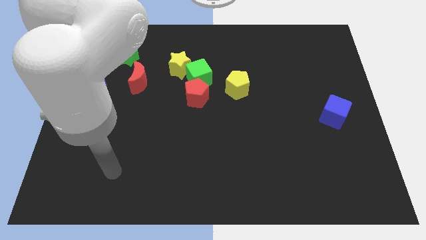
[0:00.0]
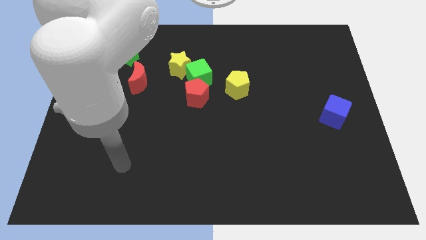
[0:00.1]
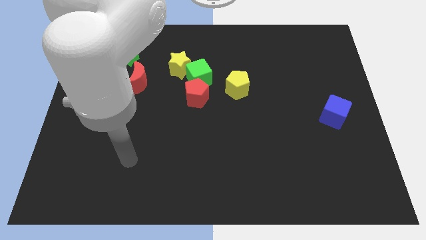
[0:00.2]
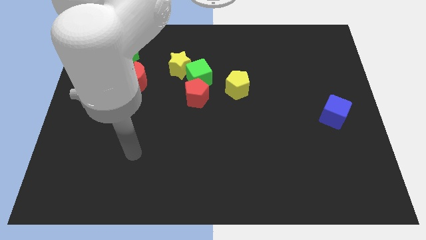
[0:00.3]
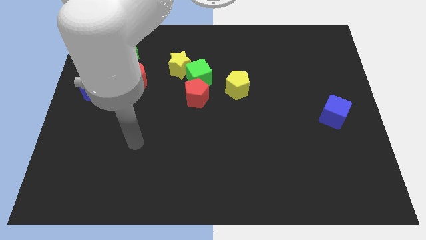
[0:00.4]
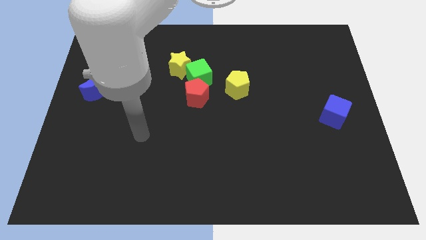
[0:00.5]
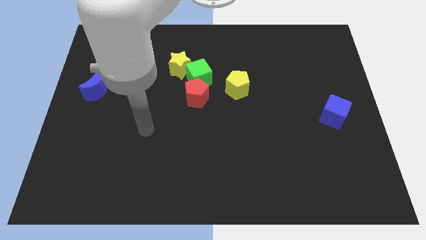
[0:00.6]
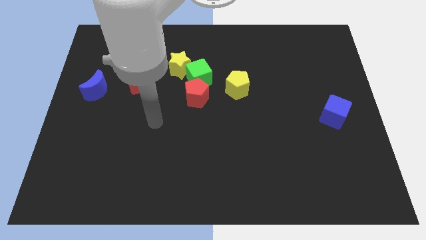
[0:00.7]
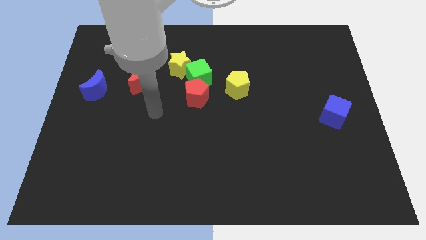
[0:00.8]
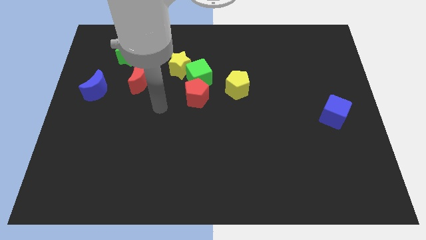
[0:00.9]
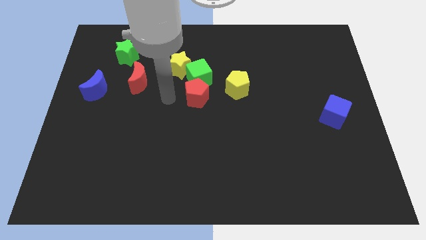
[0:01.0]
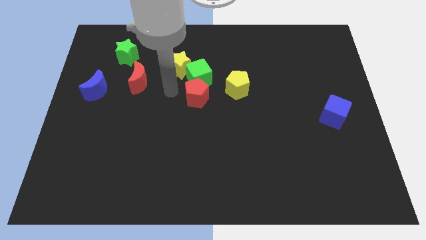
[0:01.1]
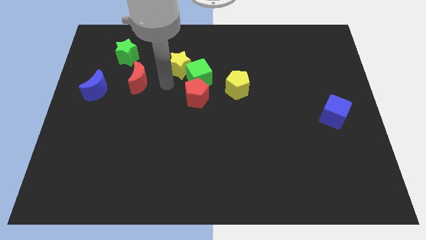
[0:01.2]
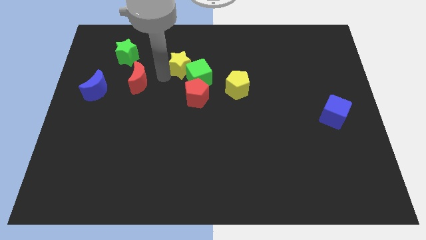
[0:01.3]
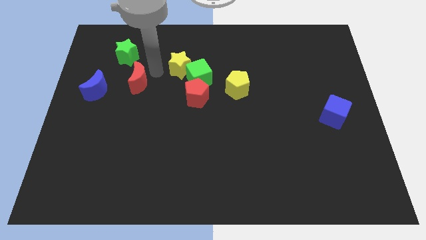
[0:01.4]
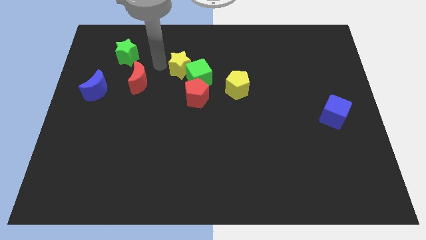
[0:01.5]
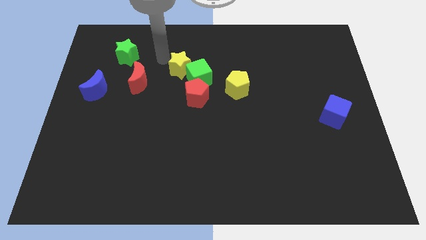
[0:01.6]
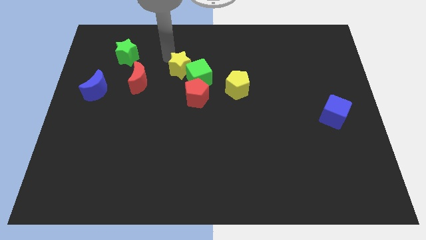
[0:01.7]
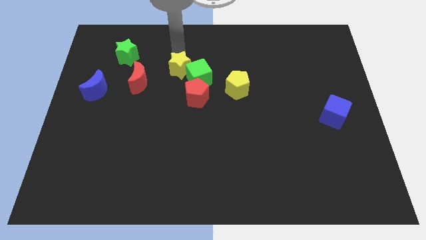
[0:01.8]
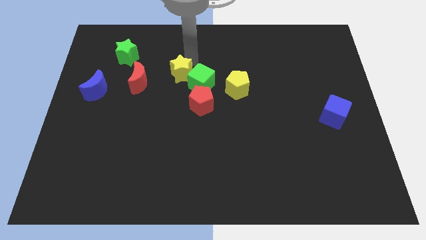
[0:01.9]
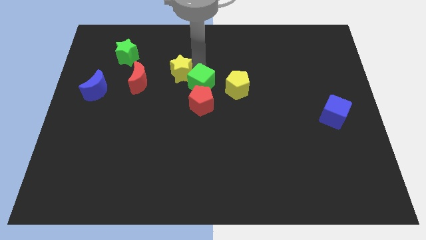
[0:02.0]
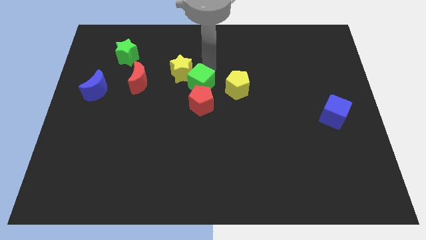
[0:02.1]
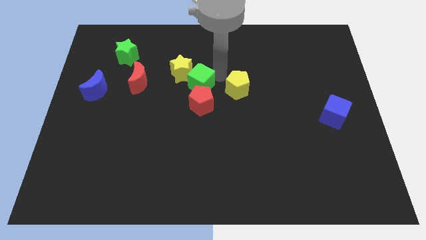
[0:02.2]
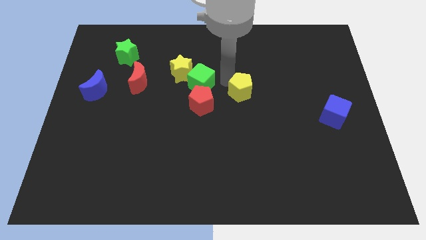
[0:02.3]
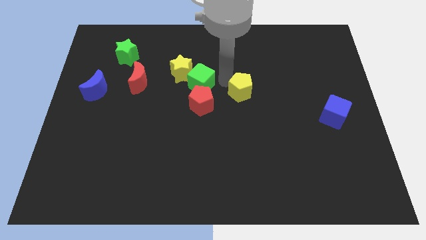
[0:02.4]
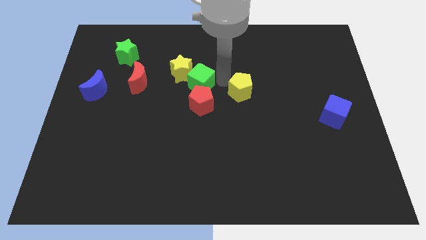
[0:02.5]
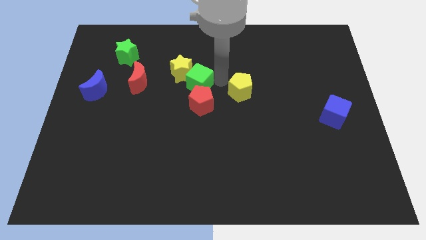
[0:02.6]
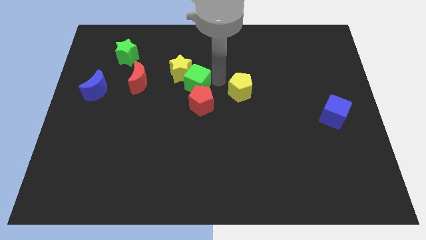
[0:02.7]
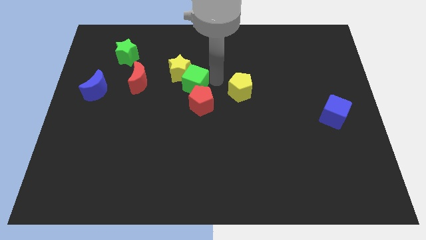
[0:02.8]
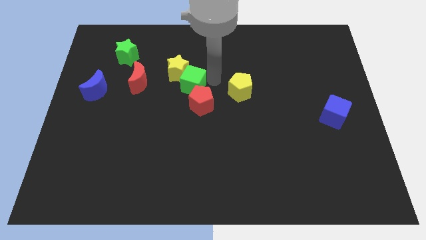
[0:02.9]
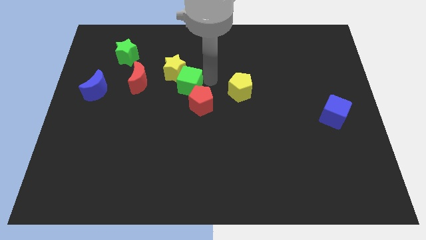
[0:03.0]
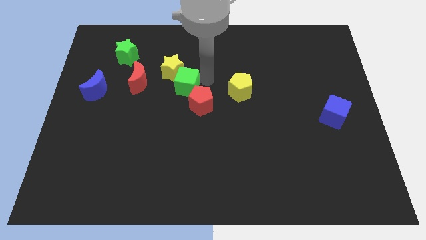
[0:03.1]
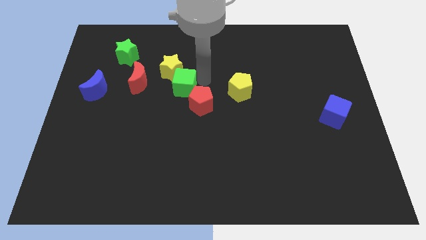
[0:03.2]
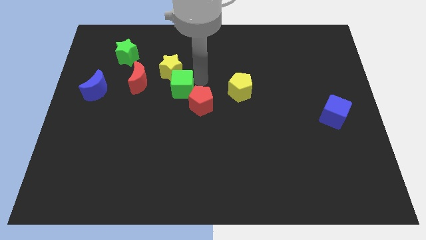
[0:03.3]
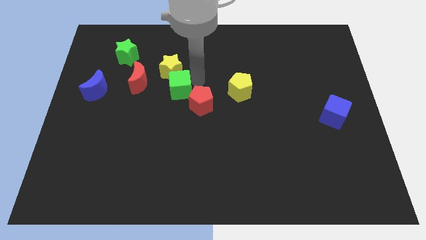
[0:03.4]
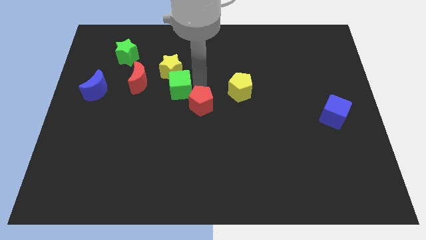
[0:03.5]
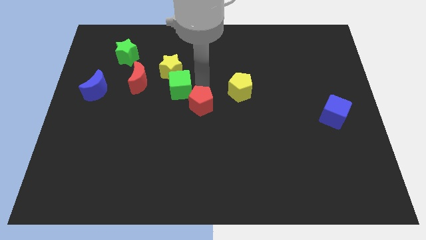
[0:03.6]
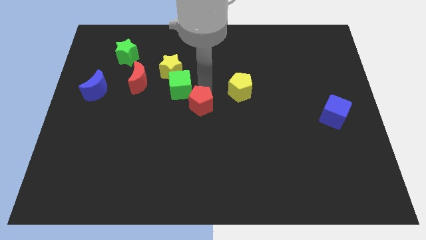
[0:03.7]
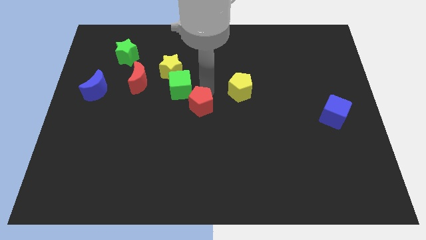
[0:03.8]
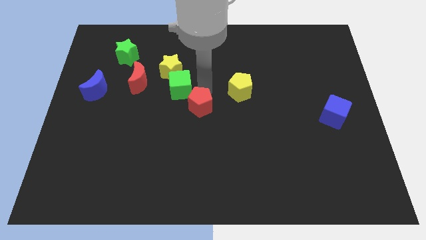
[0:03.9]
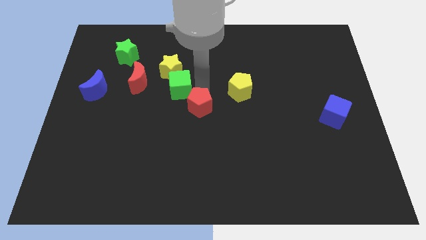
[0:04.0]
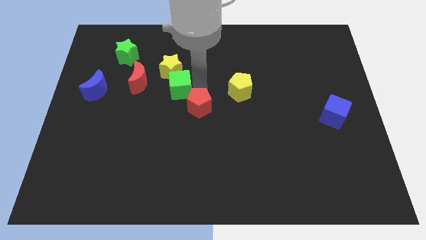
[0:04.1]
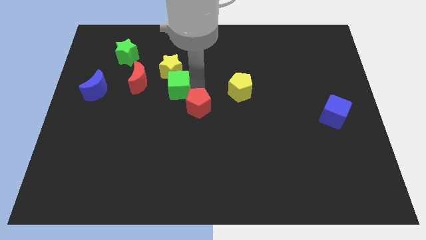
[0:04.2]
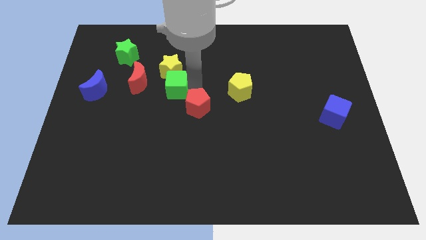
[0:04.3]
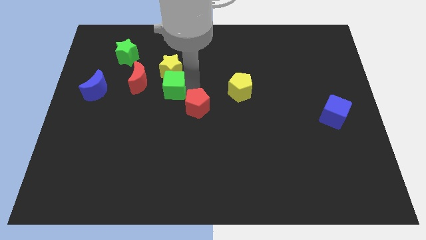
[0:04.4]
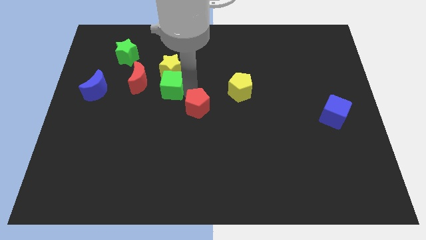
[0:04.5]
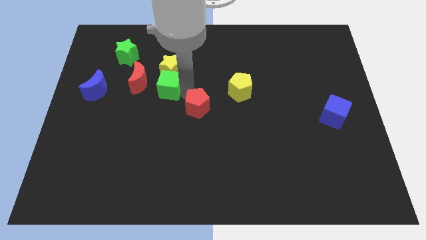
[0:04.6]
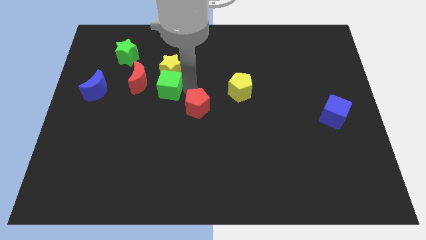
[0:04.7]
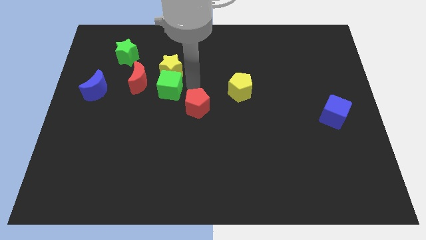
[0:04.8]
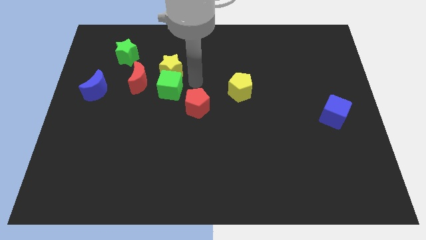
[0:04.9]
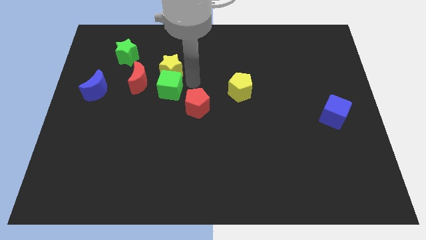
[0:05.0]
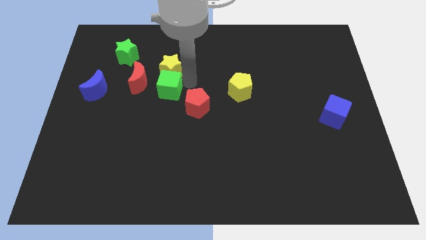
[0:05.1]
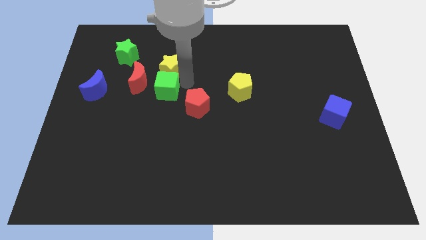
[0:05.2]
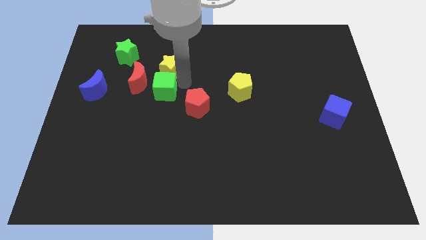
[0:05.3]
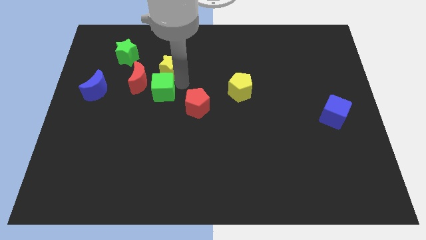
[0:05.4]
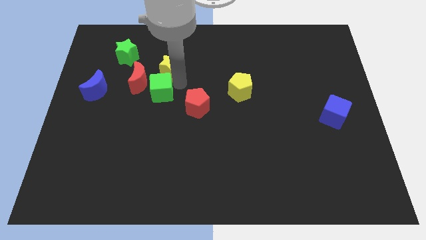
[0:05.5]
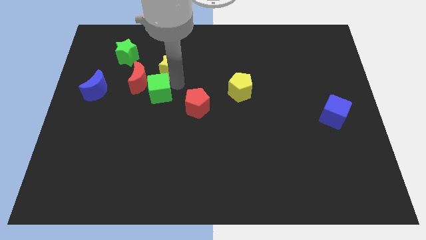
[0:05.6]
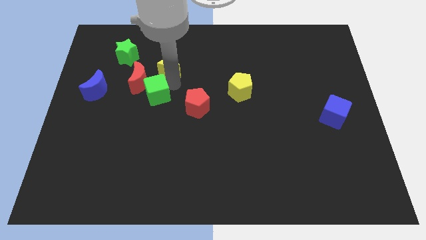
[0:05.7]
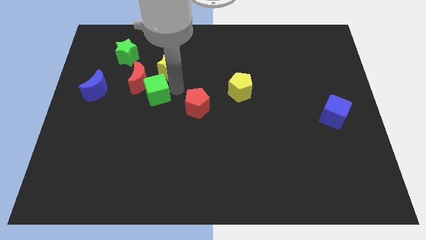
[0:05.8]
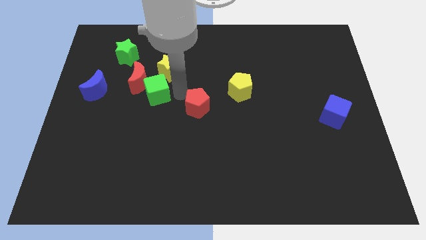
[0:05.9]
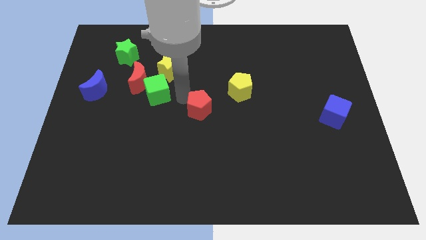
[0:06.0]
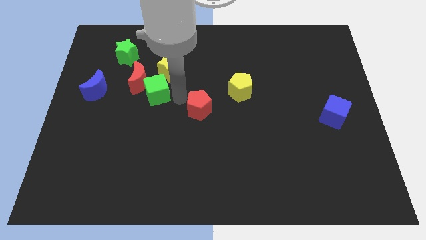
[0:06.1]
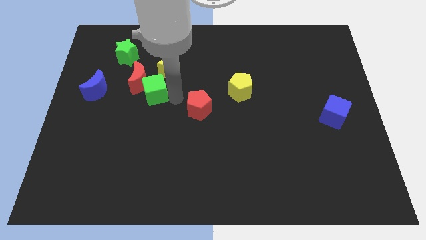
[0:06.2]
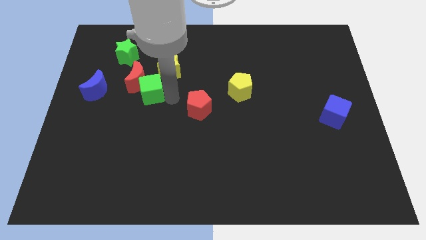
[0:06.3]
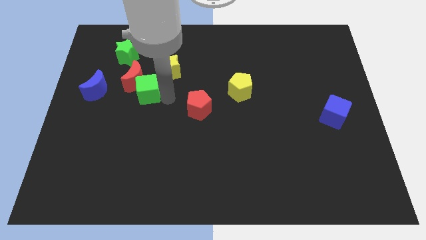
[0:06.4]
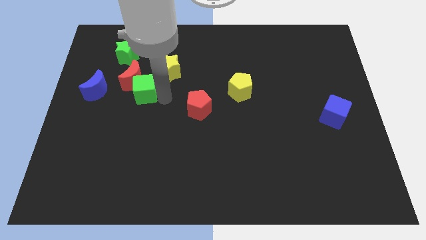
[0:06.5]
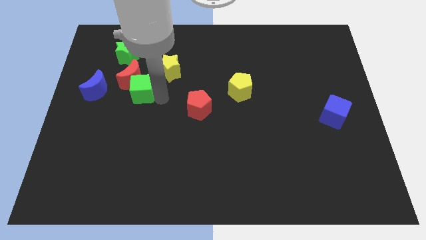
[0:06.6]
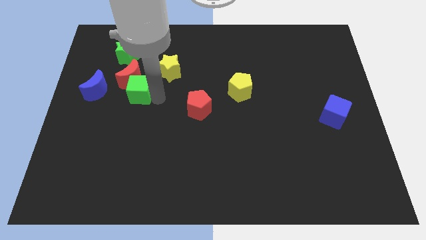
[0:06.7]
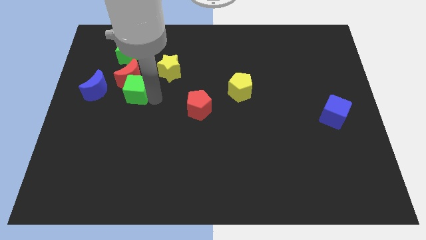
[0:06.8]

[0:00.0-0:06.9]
push the green cube below the green star
